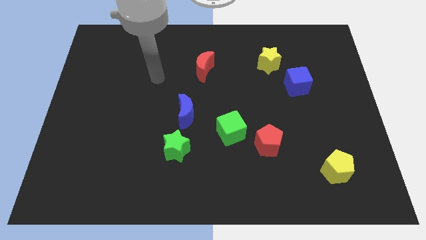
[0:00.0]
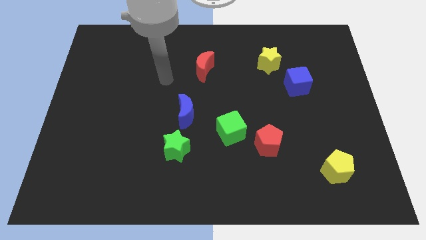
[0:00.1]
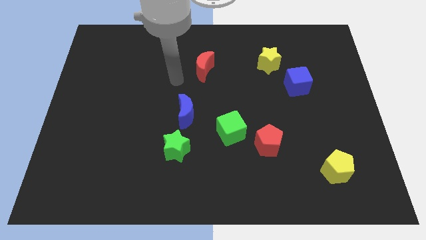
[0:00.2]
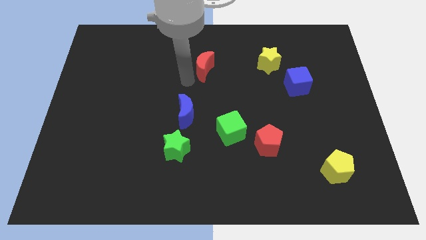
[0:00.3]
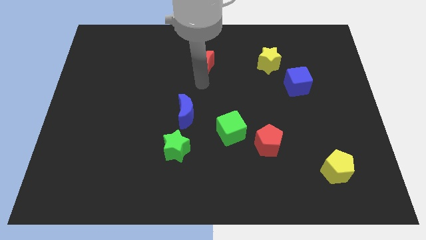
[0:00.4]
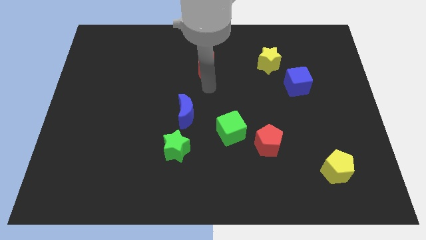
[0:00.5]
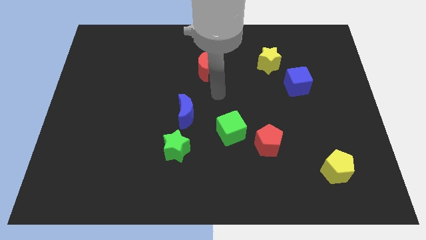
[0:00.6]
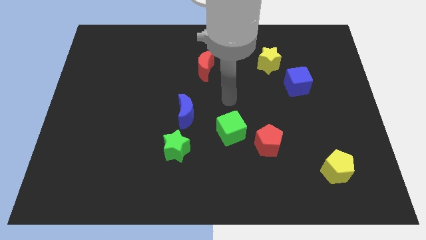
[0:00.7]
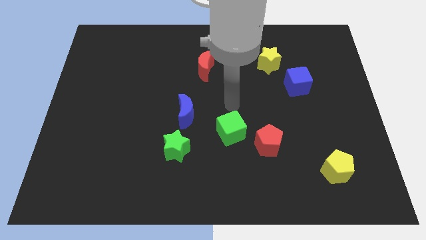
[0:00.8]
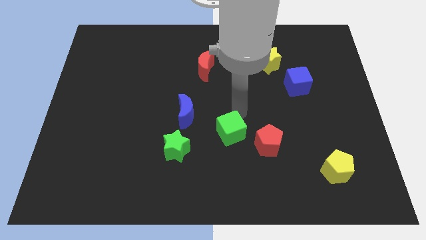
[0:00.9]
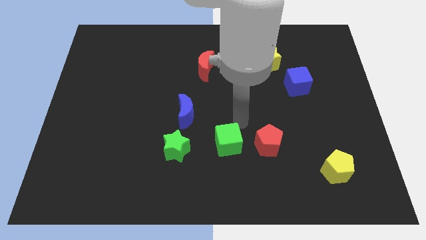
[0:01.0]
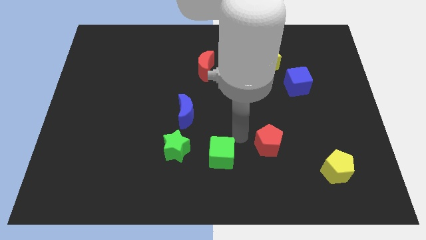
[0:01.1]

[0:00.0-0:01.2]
separate the red pentagon from the green cube

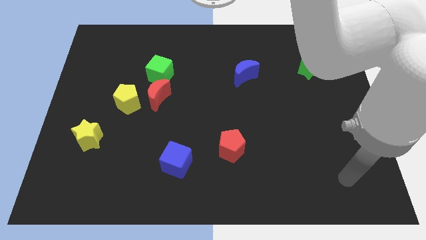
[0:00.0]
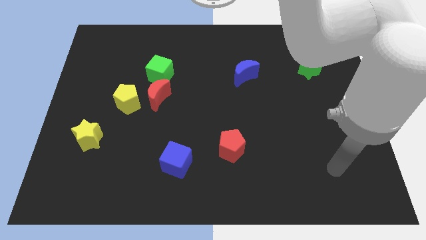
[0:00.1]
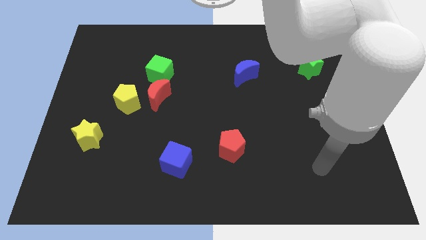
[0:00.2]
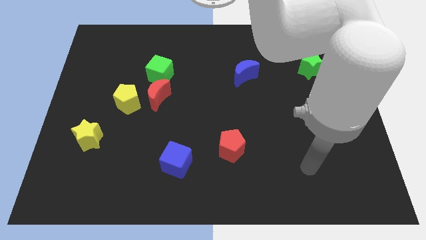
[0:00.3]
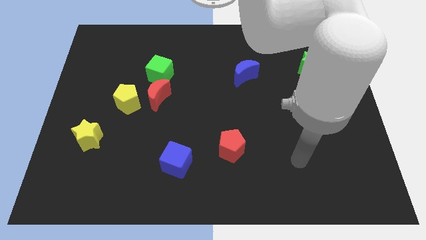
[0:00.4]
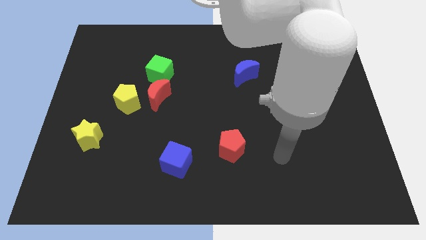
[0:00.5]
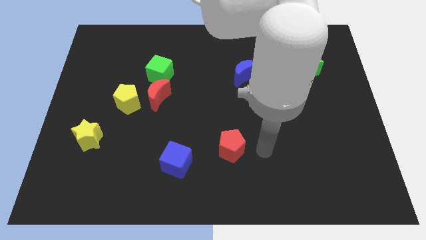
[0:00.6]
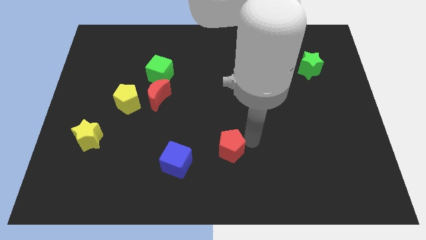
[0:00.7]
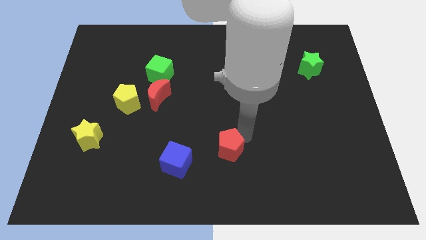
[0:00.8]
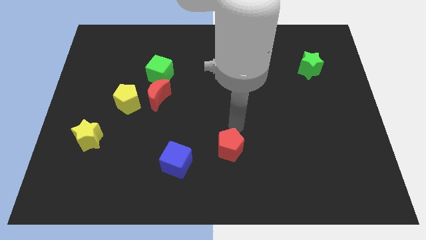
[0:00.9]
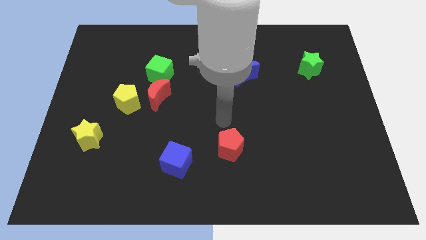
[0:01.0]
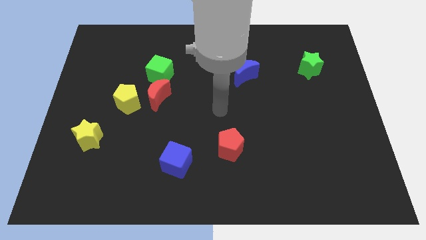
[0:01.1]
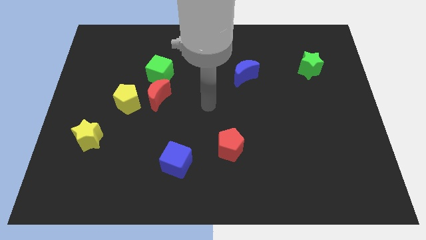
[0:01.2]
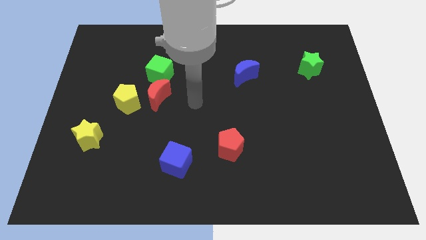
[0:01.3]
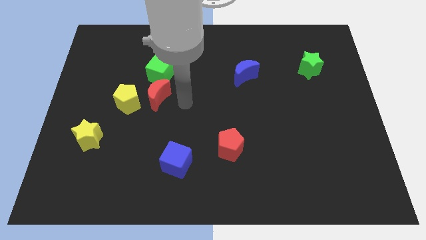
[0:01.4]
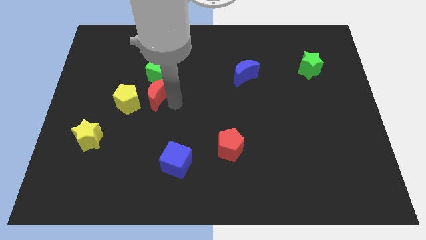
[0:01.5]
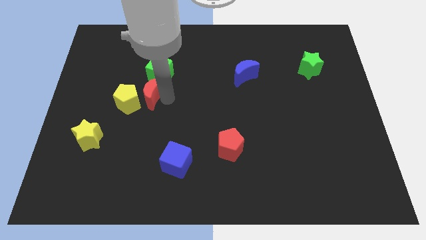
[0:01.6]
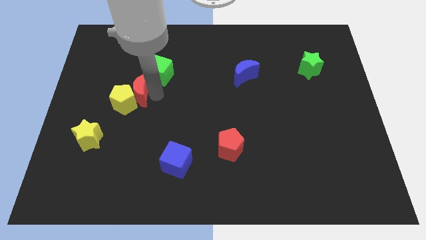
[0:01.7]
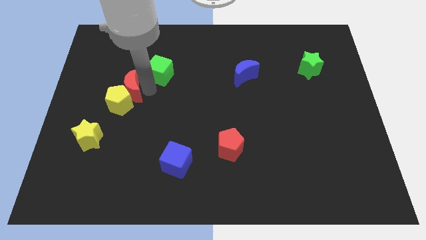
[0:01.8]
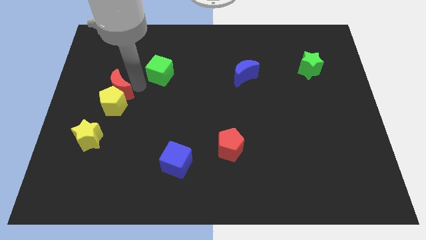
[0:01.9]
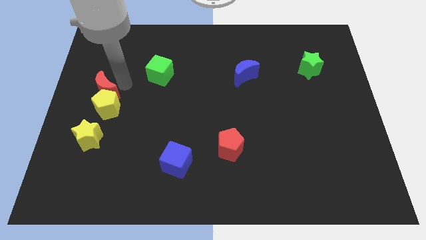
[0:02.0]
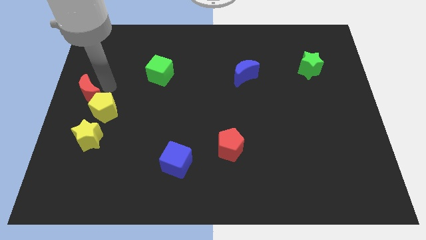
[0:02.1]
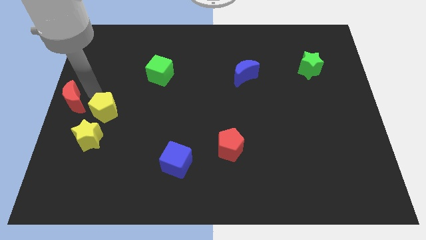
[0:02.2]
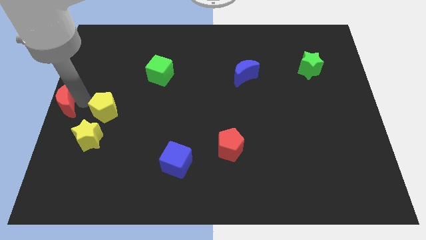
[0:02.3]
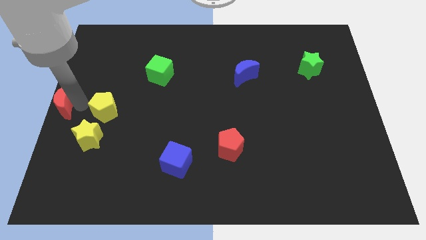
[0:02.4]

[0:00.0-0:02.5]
move the yellow pentagon away from the red moon

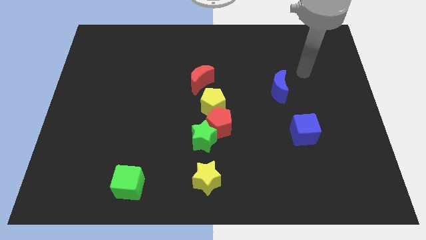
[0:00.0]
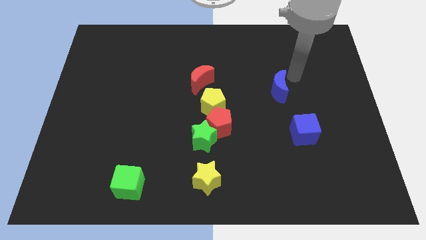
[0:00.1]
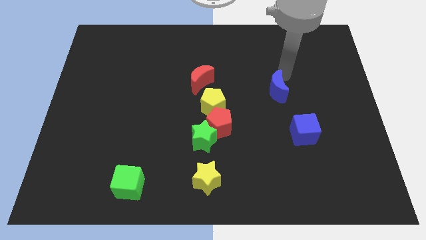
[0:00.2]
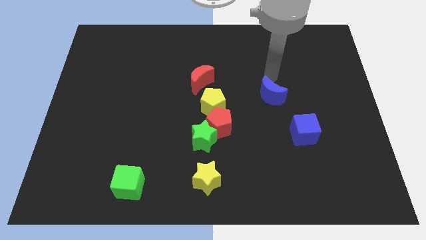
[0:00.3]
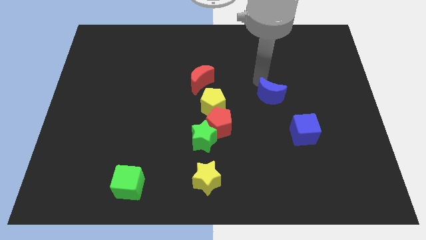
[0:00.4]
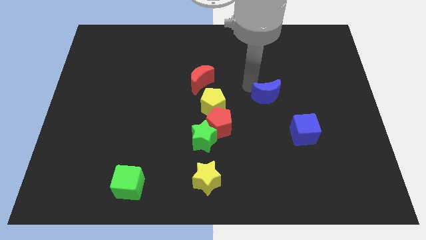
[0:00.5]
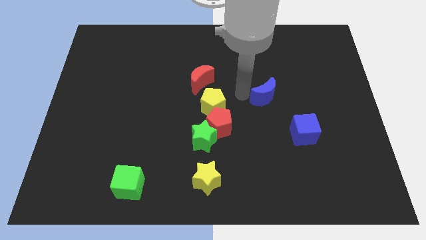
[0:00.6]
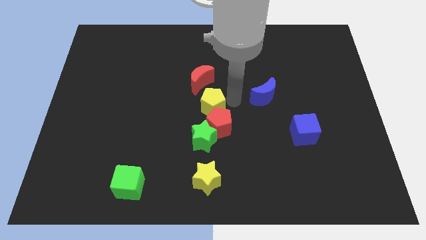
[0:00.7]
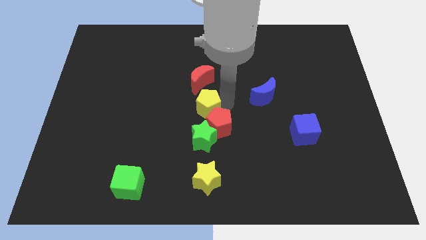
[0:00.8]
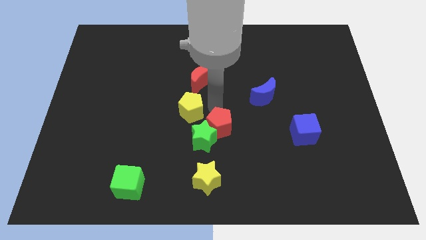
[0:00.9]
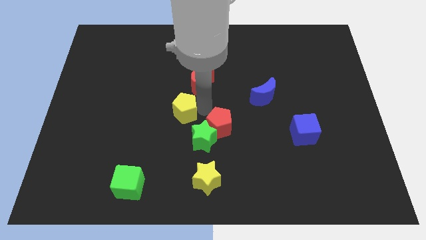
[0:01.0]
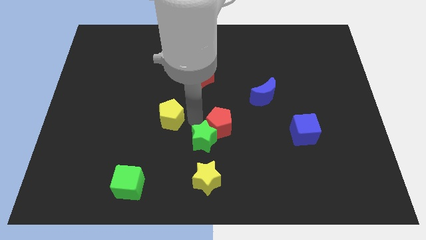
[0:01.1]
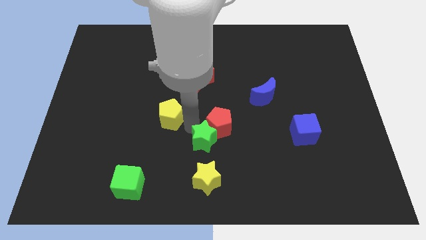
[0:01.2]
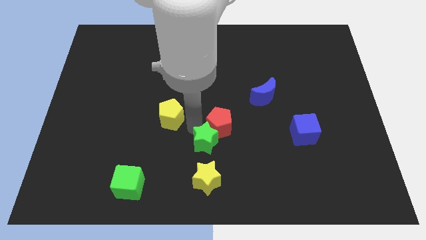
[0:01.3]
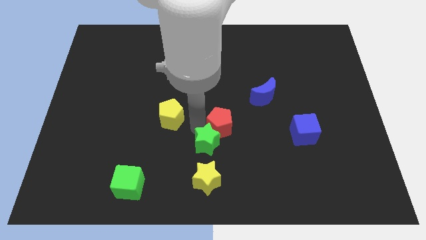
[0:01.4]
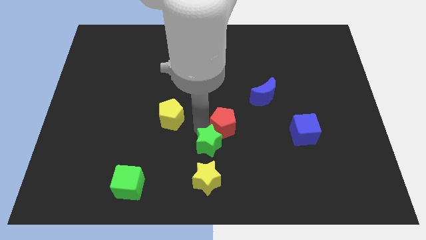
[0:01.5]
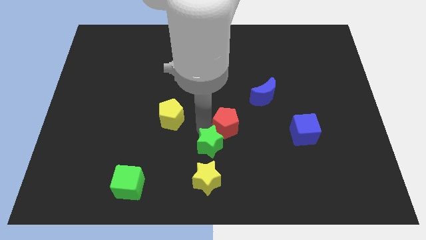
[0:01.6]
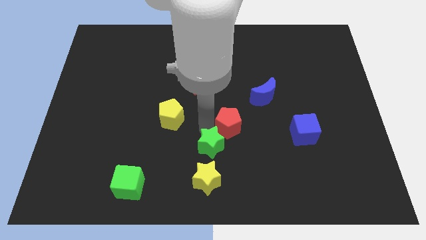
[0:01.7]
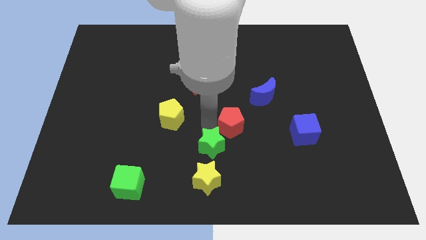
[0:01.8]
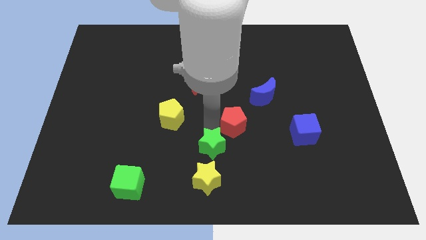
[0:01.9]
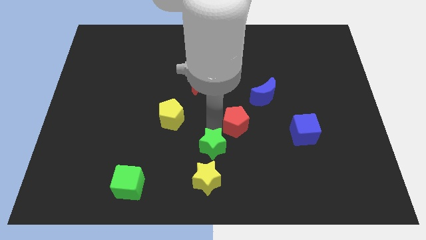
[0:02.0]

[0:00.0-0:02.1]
separate the red pentagon from the green star and yellow pentagon

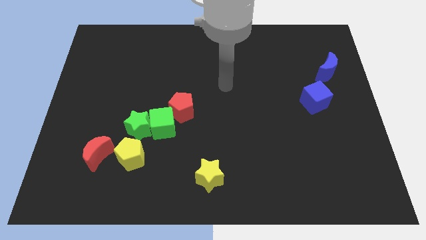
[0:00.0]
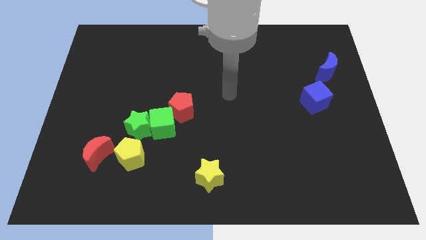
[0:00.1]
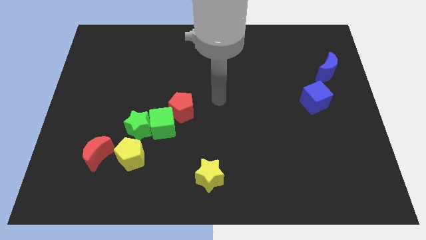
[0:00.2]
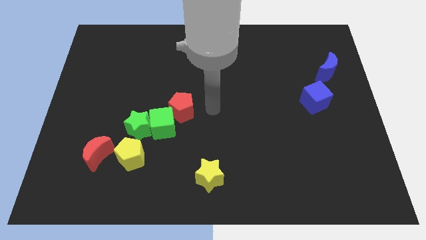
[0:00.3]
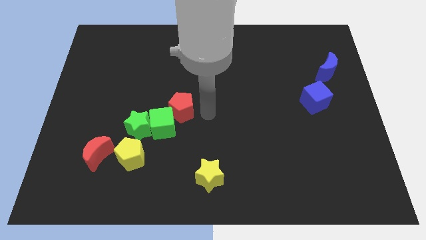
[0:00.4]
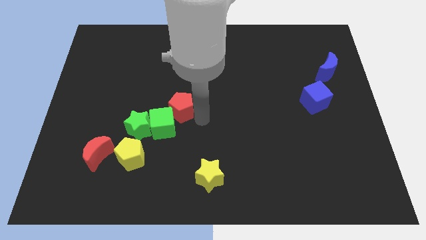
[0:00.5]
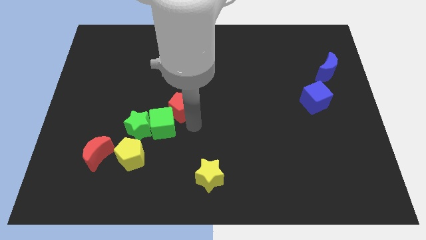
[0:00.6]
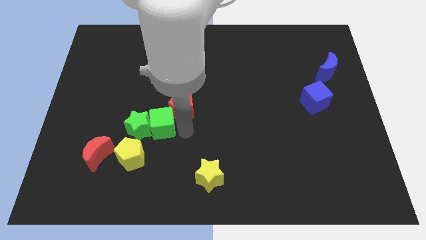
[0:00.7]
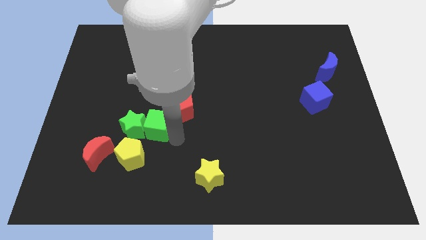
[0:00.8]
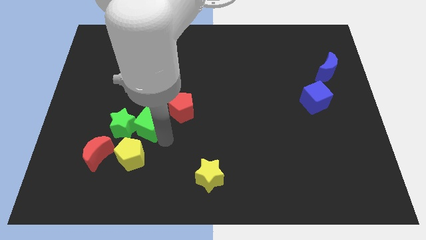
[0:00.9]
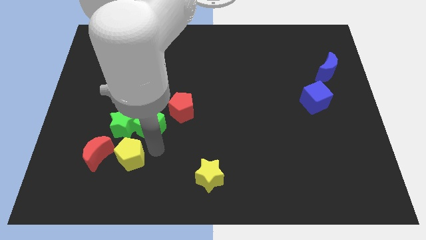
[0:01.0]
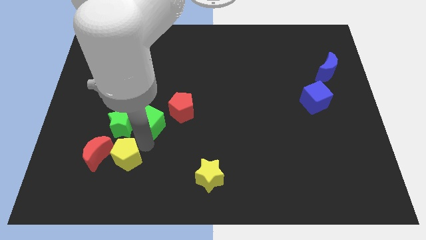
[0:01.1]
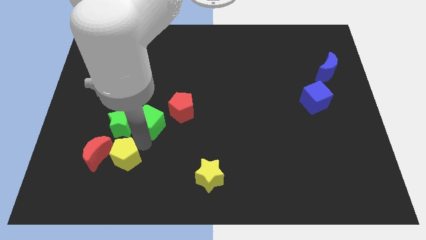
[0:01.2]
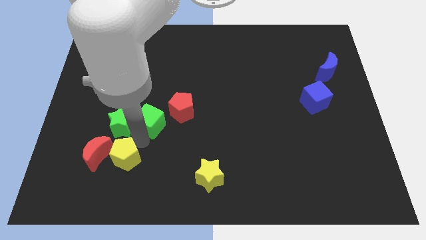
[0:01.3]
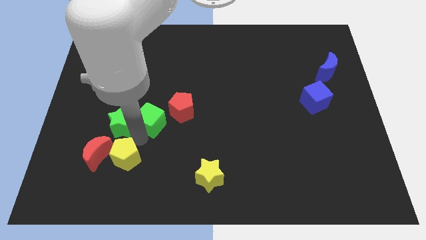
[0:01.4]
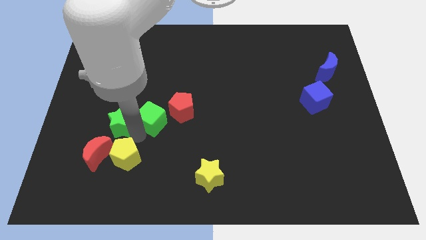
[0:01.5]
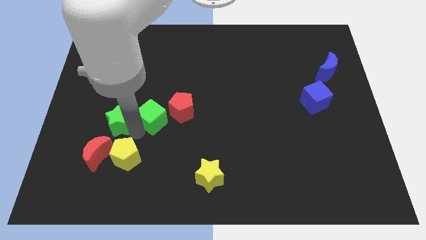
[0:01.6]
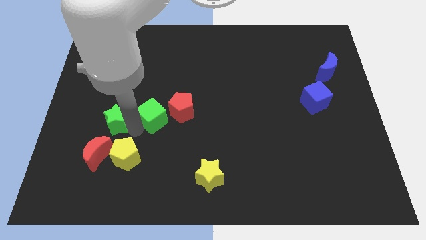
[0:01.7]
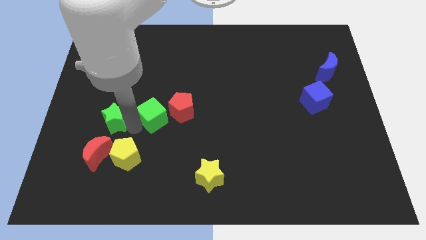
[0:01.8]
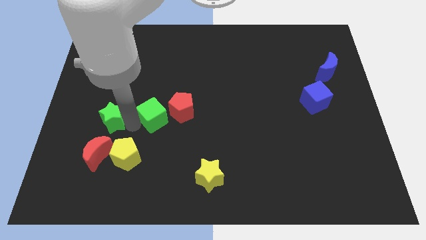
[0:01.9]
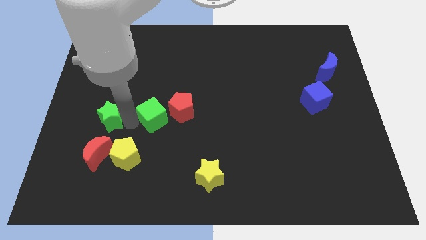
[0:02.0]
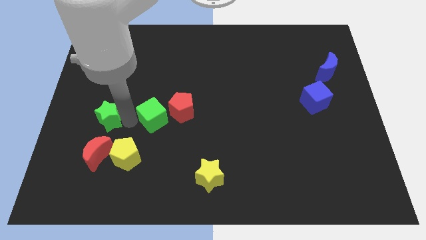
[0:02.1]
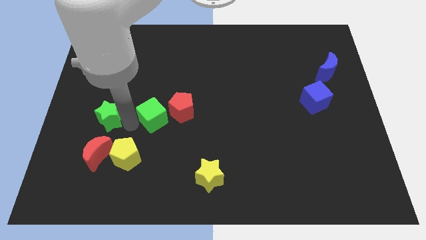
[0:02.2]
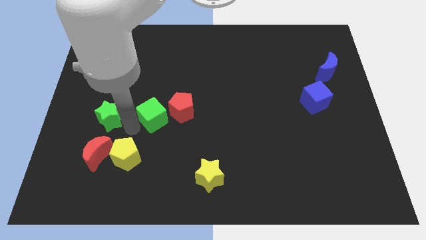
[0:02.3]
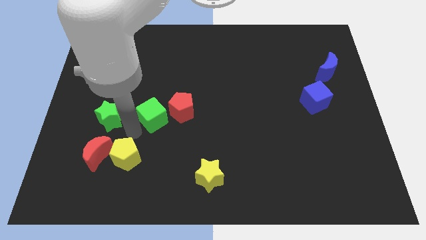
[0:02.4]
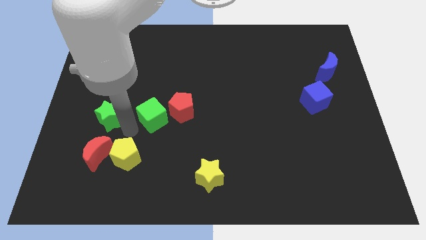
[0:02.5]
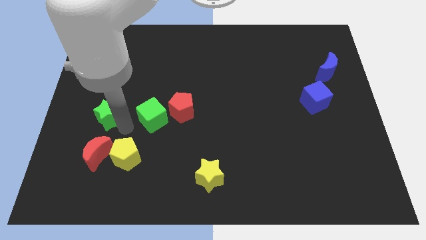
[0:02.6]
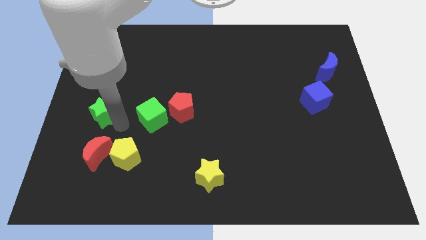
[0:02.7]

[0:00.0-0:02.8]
move the green star away from the green cube and yellow pentagon

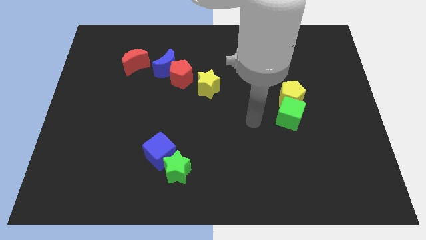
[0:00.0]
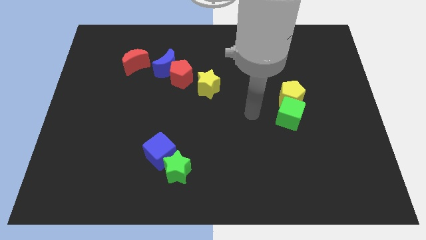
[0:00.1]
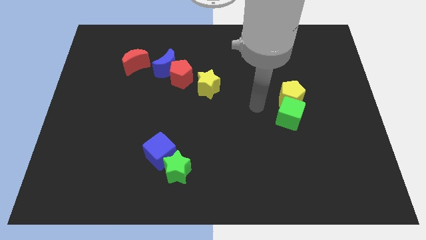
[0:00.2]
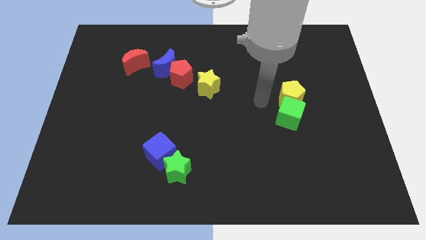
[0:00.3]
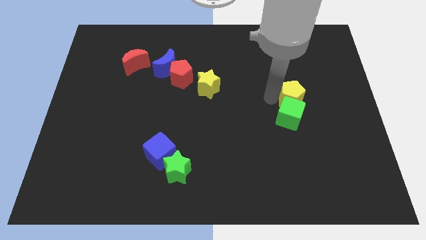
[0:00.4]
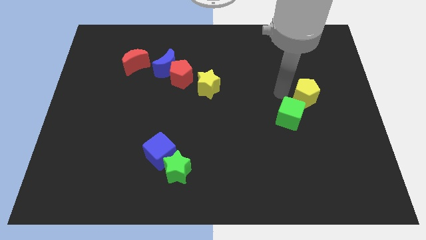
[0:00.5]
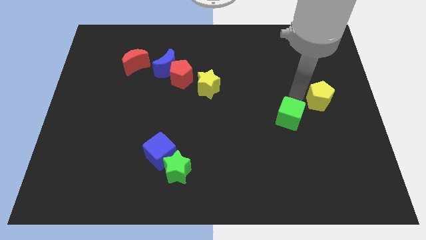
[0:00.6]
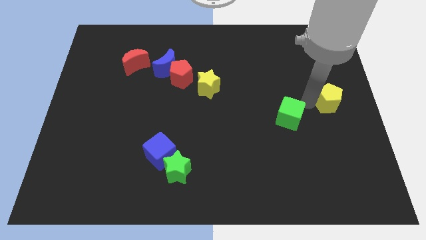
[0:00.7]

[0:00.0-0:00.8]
move the green cube away from the yellow pentagon
